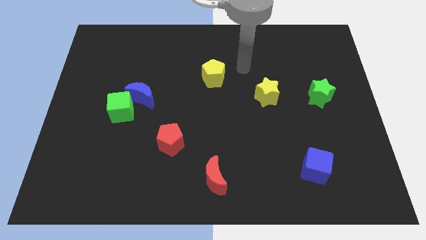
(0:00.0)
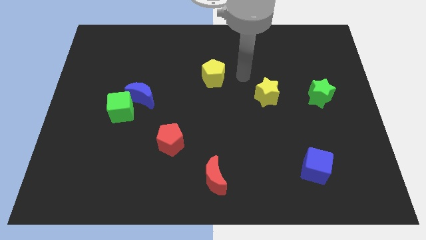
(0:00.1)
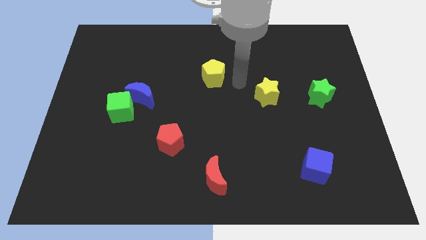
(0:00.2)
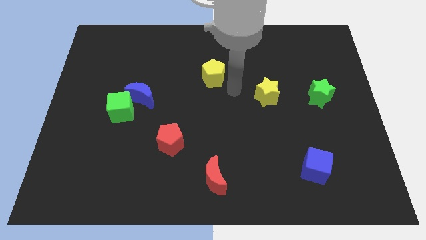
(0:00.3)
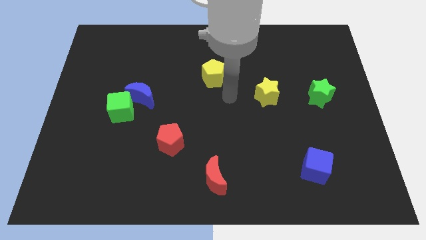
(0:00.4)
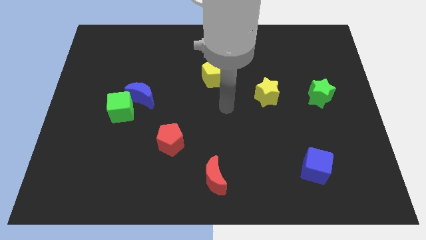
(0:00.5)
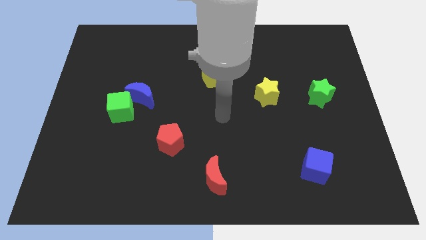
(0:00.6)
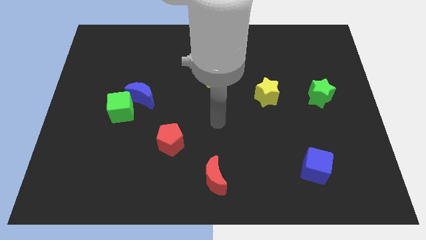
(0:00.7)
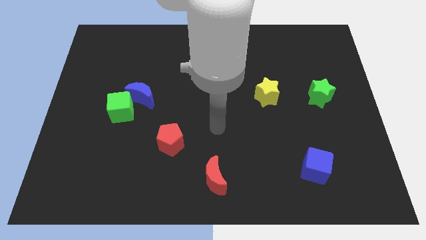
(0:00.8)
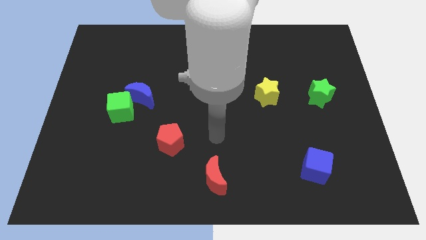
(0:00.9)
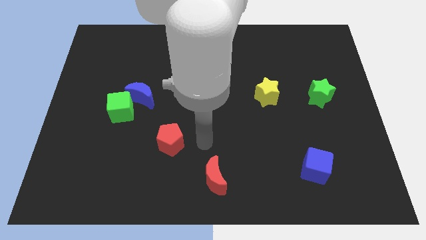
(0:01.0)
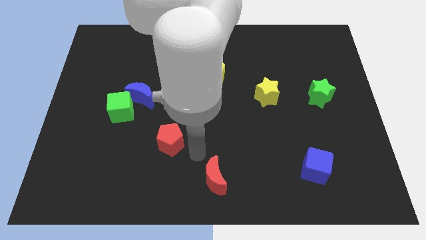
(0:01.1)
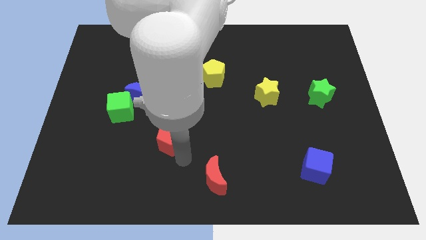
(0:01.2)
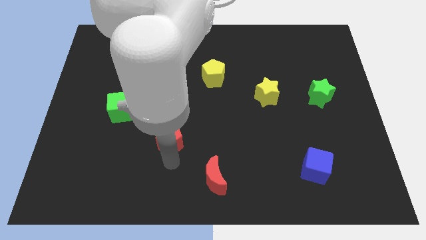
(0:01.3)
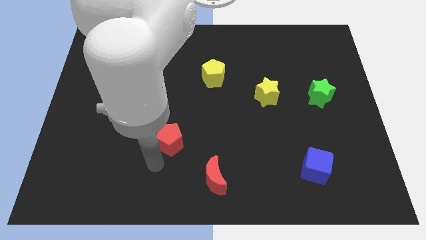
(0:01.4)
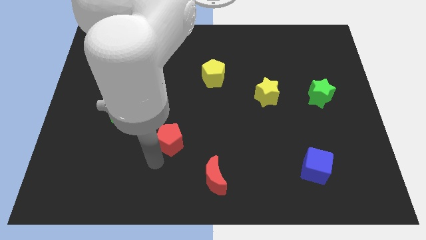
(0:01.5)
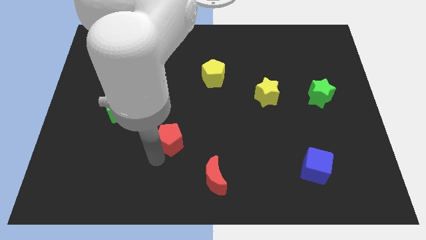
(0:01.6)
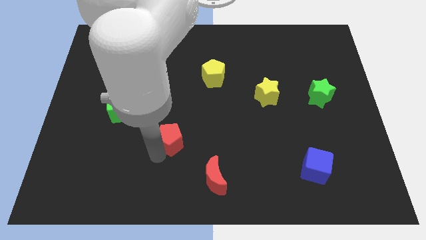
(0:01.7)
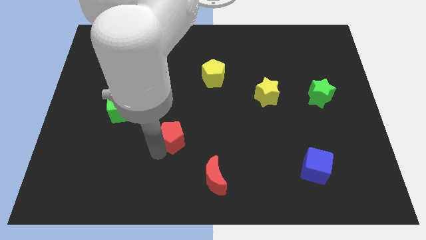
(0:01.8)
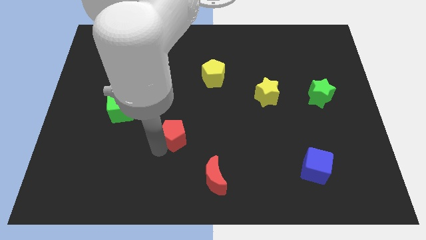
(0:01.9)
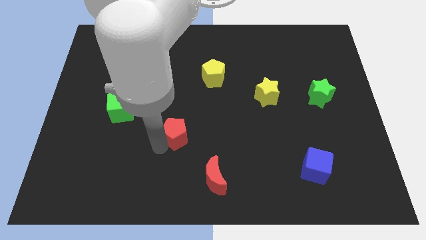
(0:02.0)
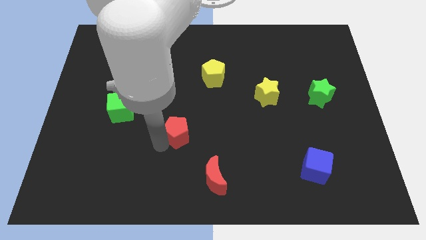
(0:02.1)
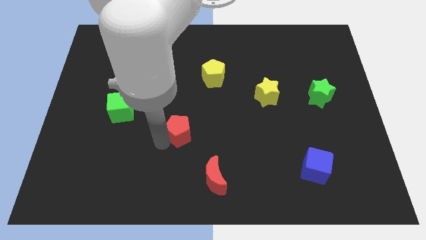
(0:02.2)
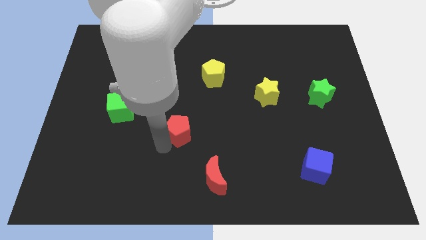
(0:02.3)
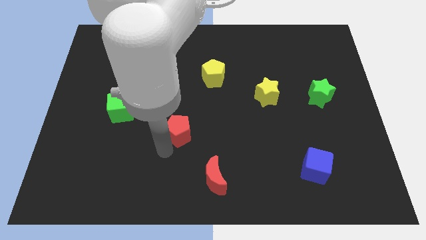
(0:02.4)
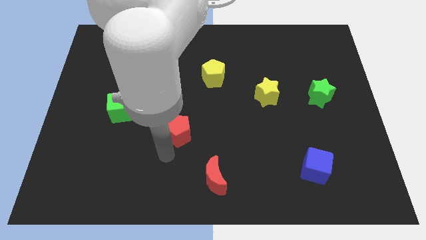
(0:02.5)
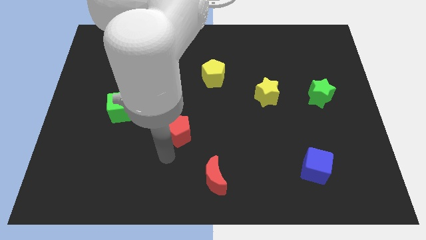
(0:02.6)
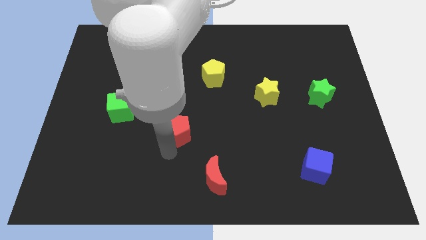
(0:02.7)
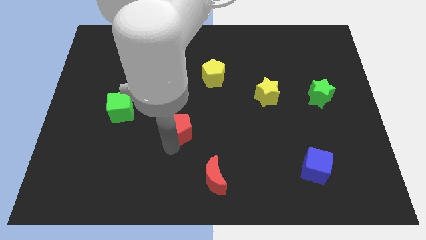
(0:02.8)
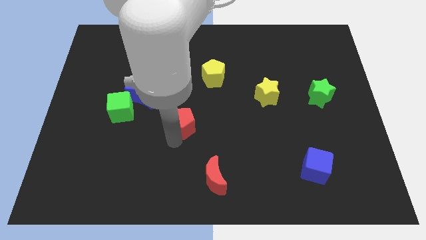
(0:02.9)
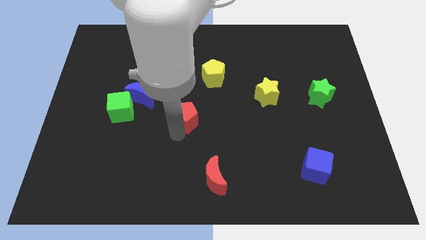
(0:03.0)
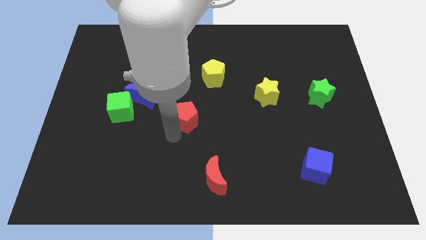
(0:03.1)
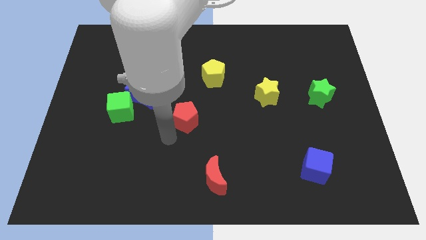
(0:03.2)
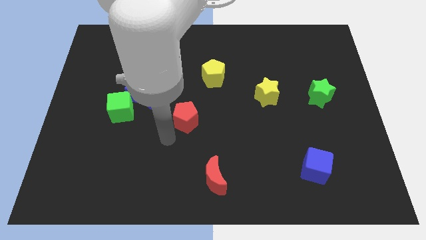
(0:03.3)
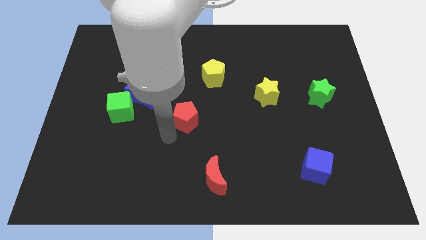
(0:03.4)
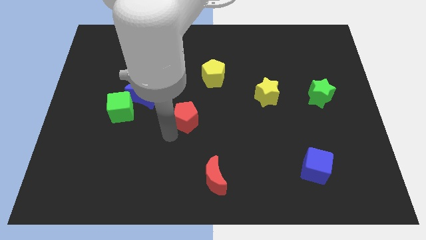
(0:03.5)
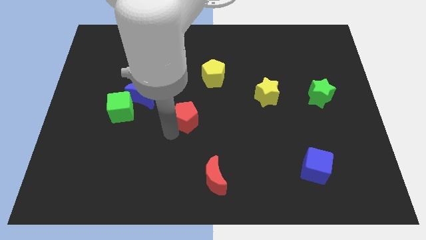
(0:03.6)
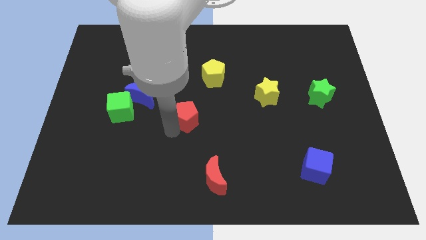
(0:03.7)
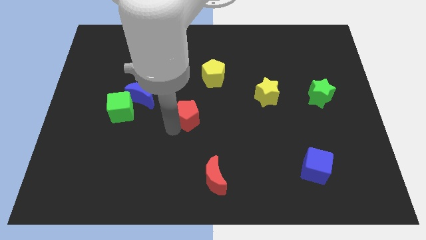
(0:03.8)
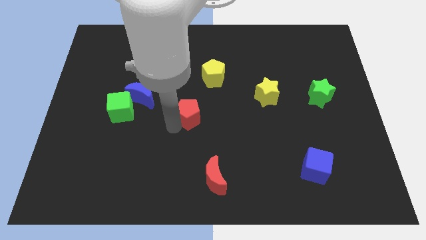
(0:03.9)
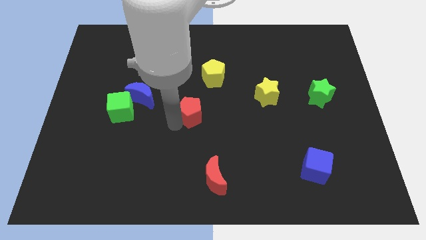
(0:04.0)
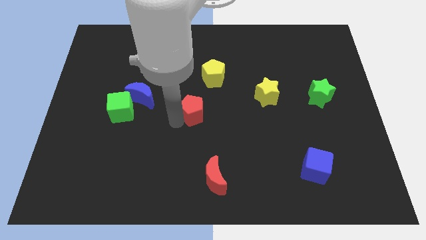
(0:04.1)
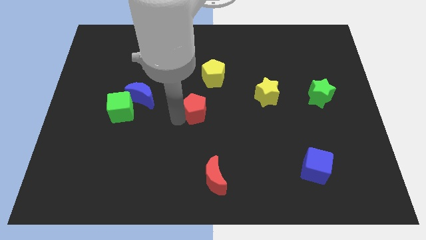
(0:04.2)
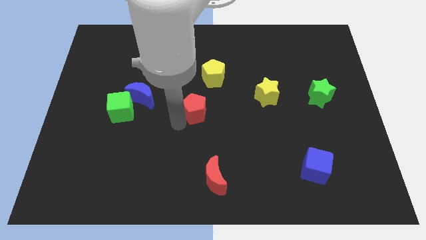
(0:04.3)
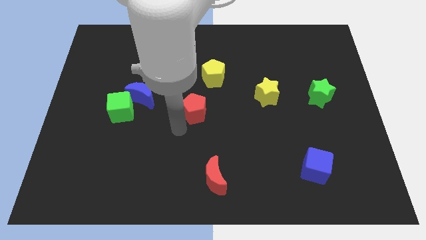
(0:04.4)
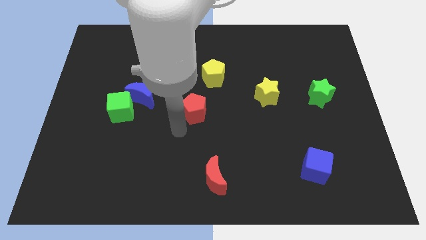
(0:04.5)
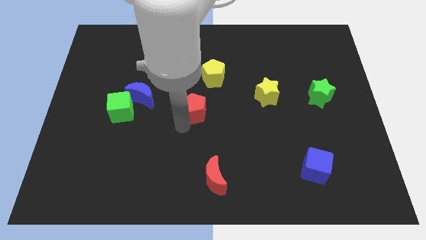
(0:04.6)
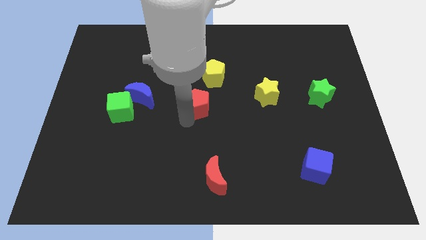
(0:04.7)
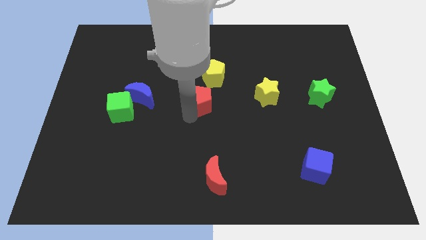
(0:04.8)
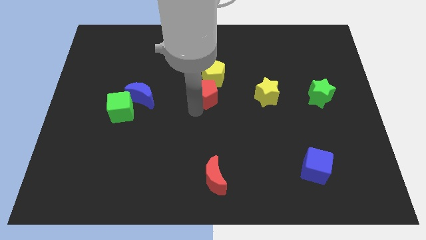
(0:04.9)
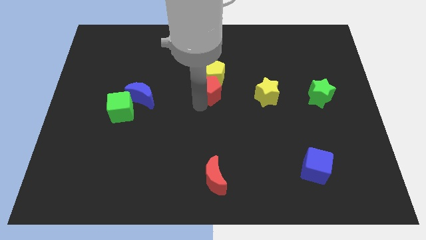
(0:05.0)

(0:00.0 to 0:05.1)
move the red pentagon next to the yellow pentagon

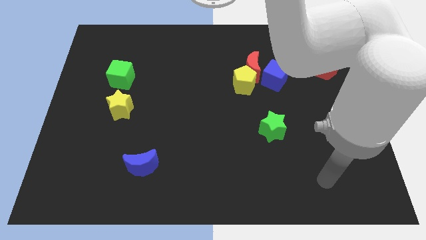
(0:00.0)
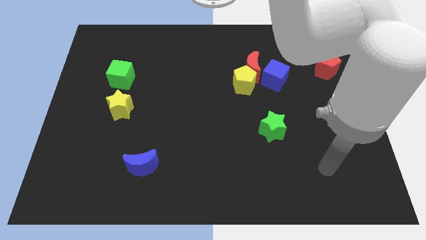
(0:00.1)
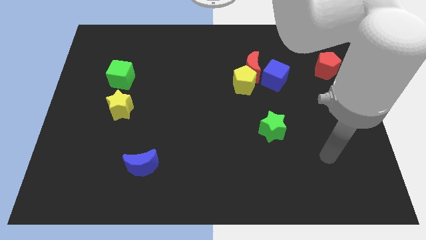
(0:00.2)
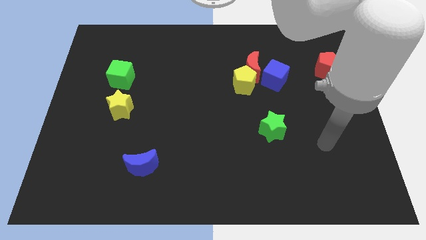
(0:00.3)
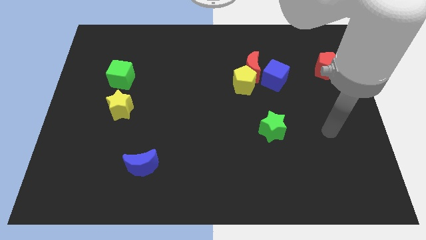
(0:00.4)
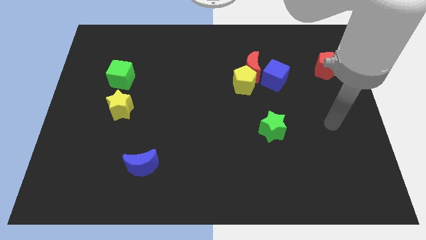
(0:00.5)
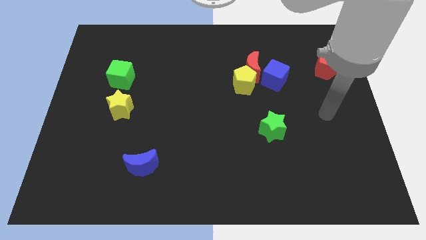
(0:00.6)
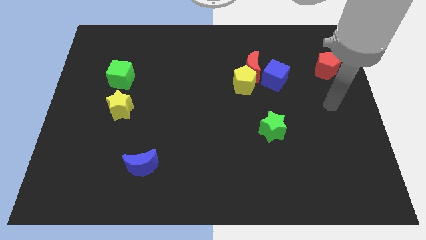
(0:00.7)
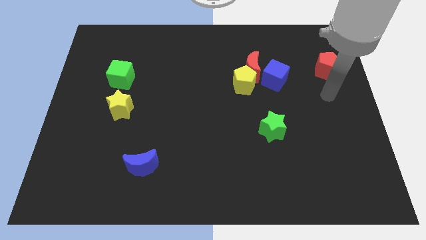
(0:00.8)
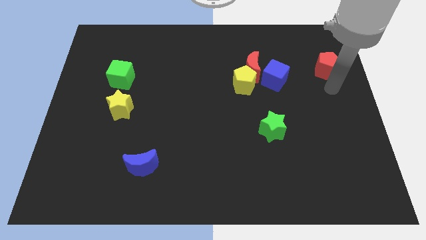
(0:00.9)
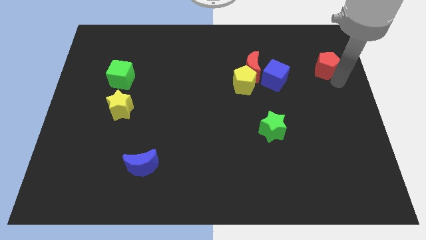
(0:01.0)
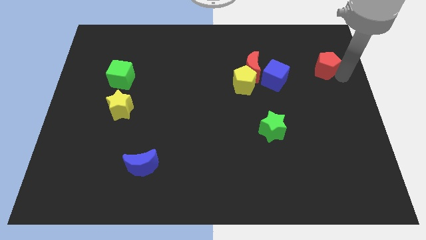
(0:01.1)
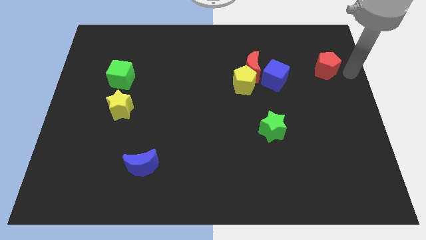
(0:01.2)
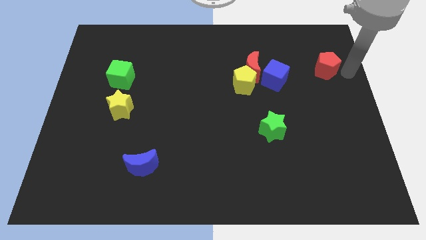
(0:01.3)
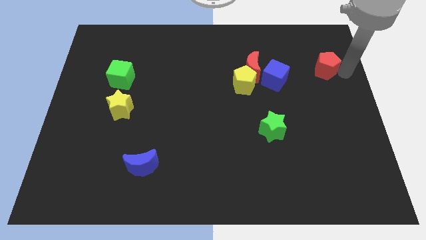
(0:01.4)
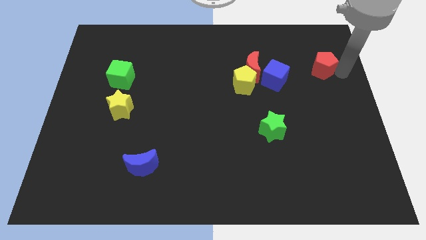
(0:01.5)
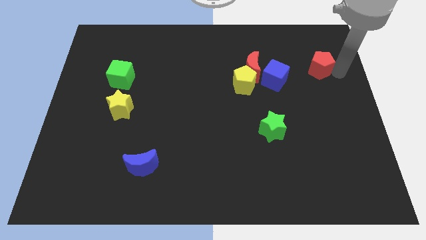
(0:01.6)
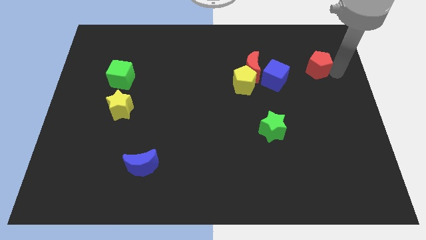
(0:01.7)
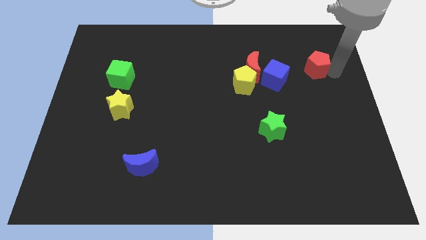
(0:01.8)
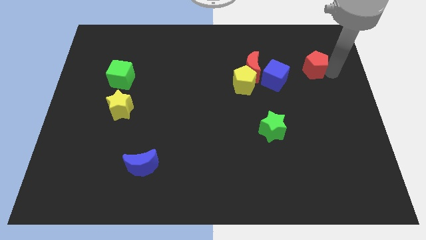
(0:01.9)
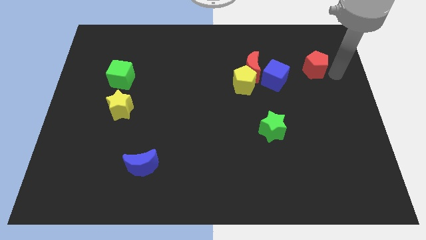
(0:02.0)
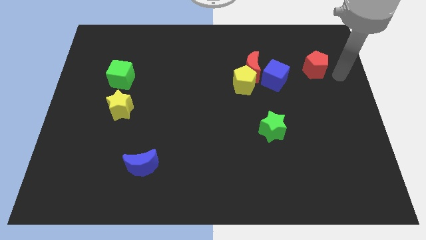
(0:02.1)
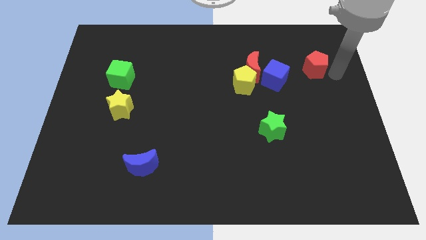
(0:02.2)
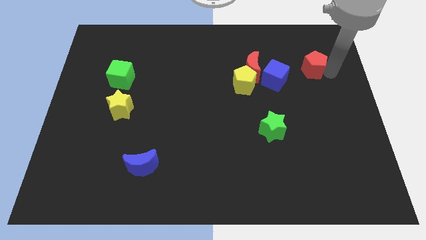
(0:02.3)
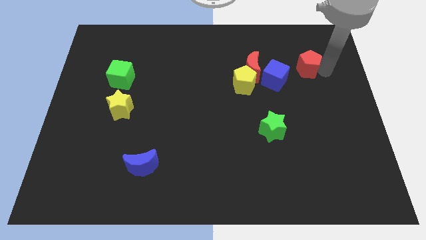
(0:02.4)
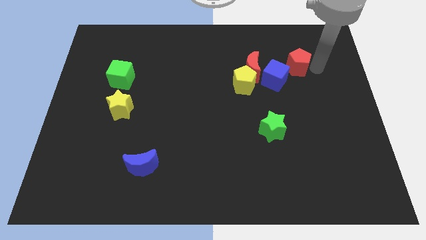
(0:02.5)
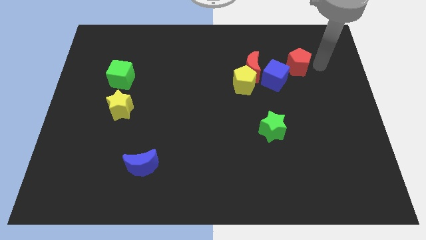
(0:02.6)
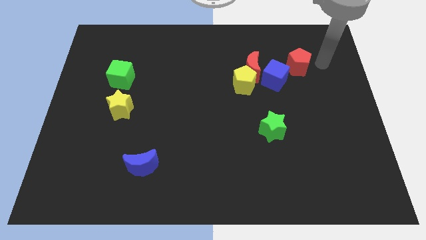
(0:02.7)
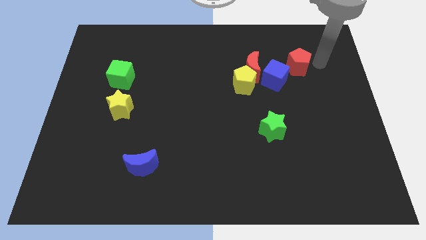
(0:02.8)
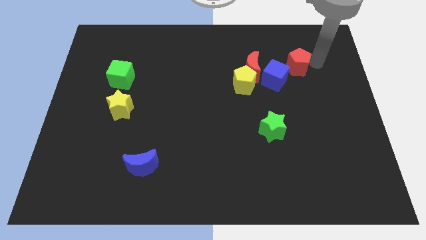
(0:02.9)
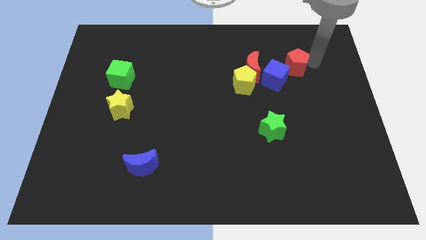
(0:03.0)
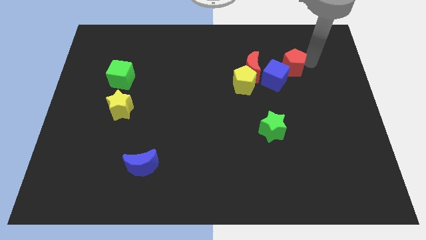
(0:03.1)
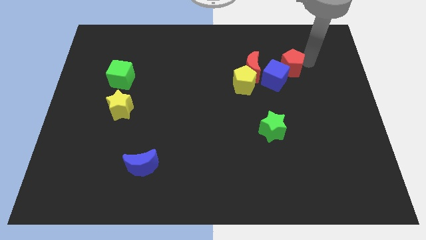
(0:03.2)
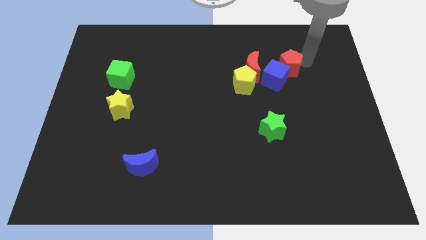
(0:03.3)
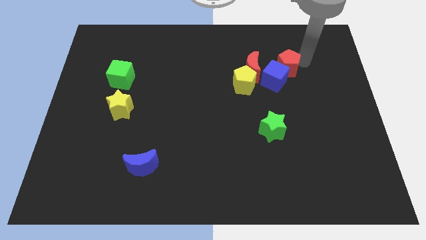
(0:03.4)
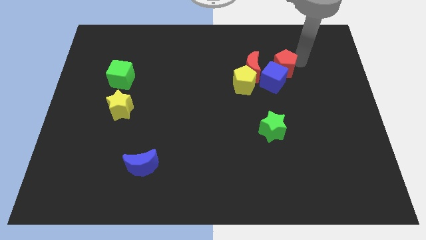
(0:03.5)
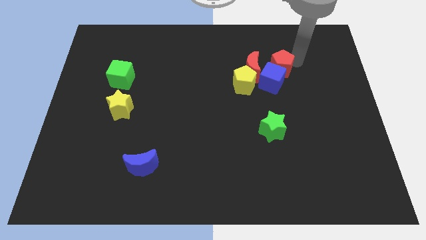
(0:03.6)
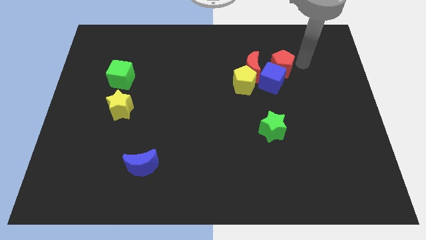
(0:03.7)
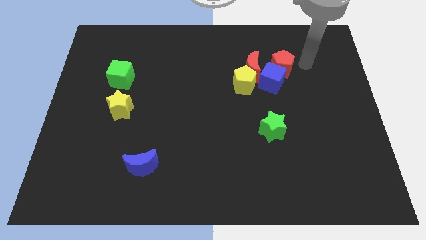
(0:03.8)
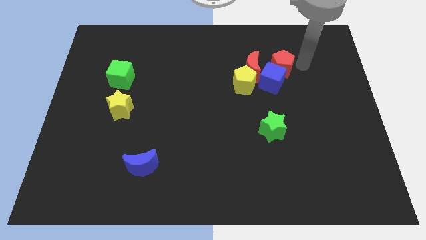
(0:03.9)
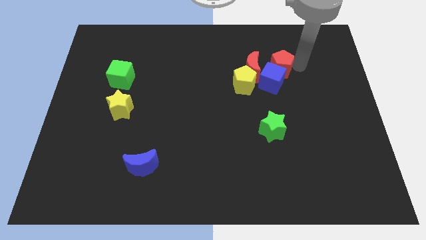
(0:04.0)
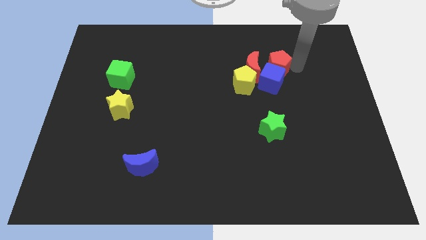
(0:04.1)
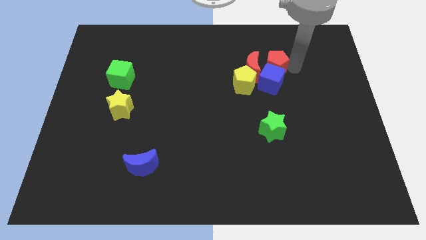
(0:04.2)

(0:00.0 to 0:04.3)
push the red pentagon to the red moon
